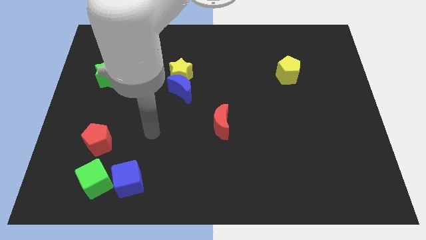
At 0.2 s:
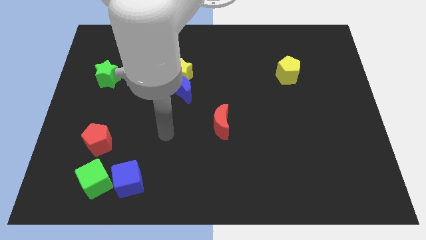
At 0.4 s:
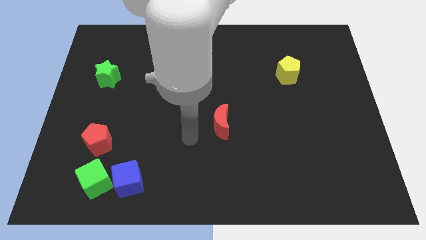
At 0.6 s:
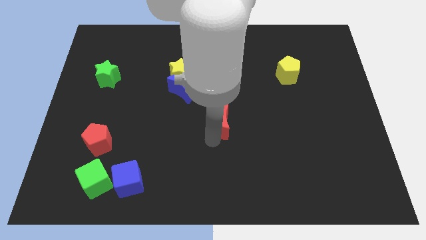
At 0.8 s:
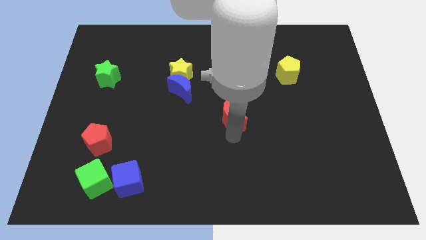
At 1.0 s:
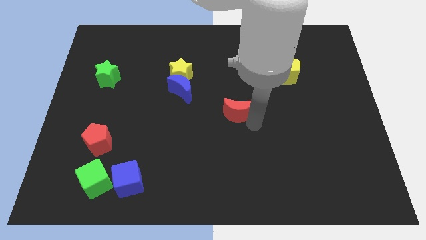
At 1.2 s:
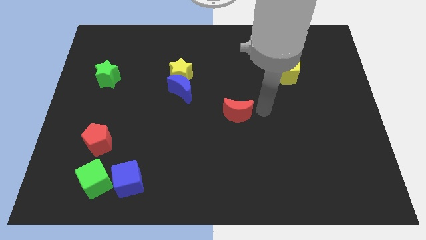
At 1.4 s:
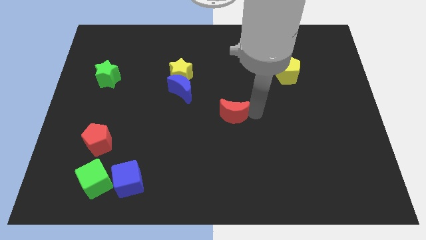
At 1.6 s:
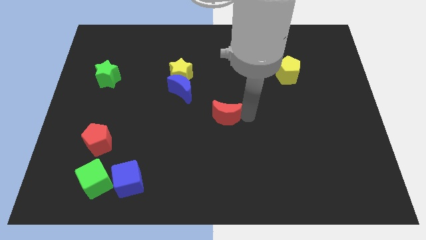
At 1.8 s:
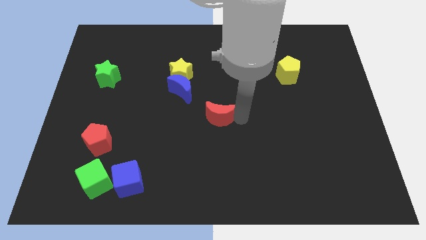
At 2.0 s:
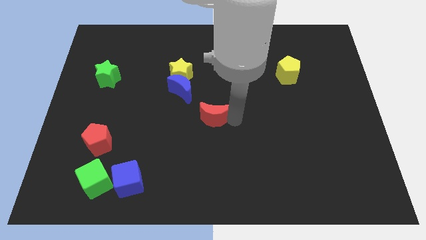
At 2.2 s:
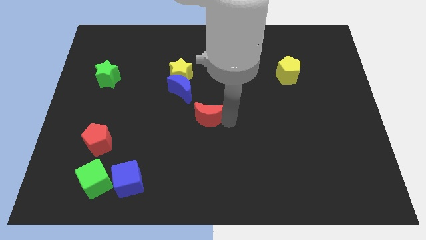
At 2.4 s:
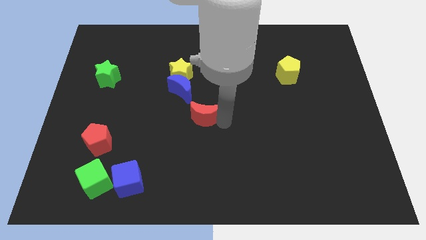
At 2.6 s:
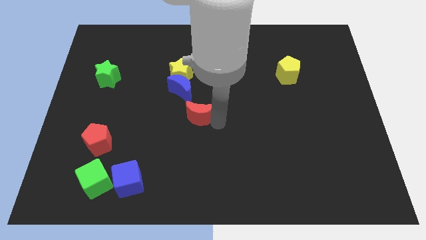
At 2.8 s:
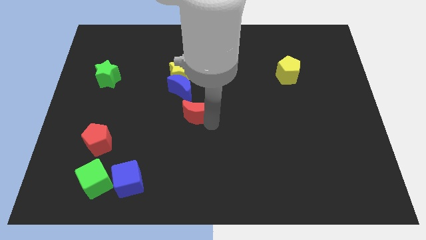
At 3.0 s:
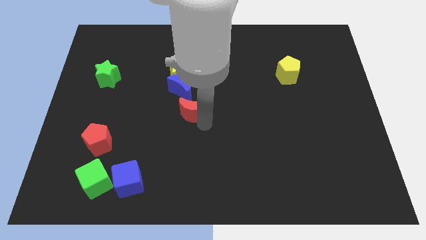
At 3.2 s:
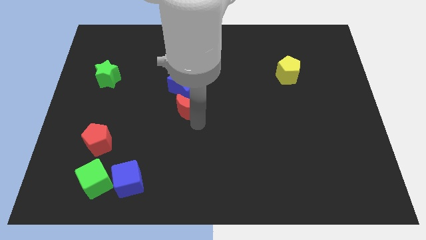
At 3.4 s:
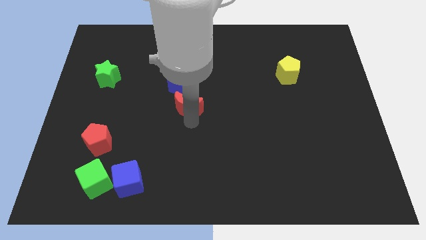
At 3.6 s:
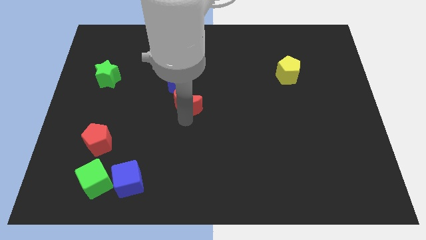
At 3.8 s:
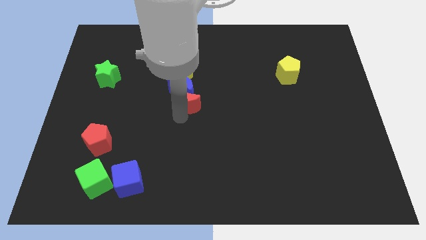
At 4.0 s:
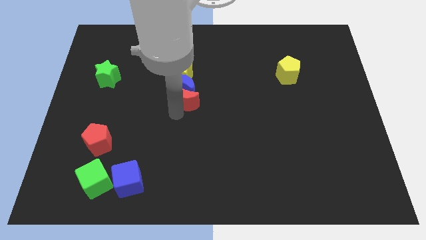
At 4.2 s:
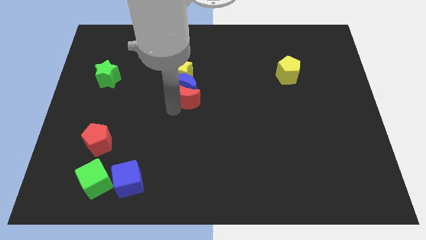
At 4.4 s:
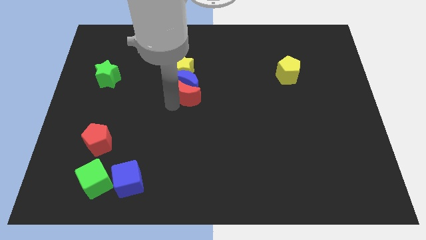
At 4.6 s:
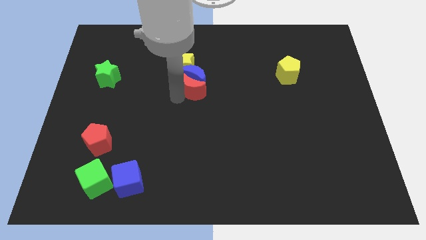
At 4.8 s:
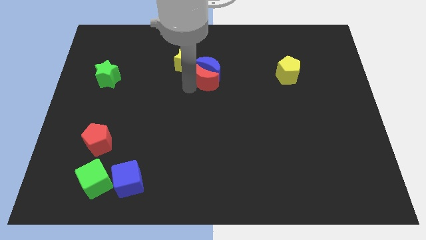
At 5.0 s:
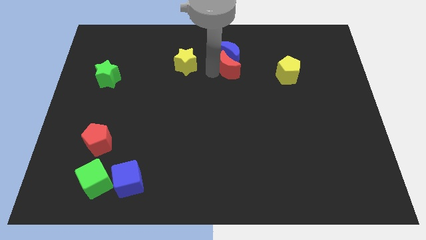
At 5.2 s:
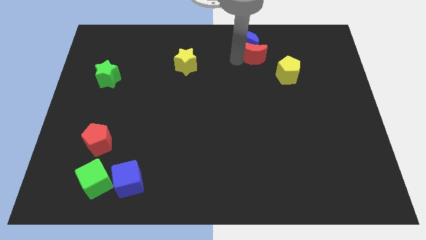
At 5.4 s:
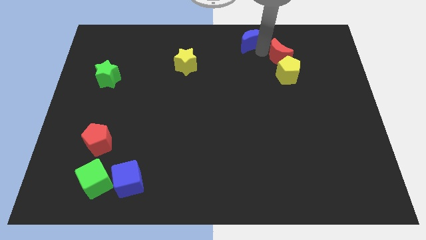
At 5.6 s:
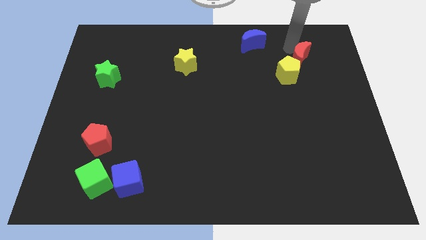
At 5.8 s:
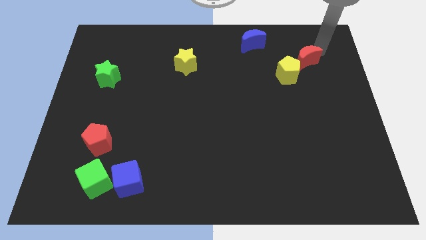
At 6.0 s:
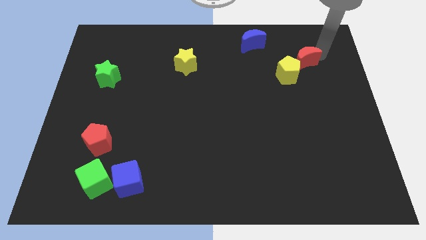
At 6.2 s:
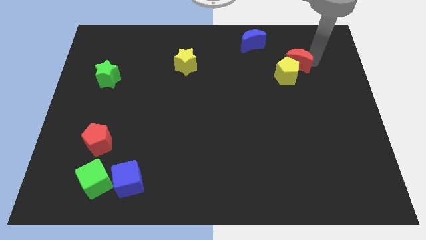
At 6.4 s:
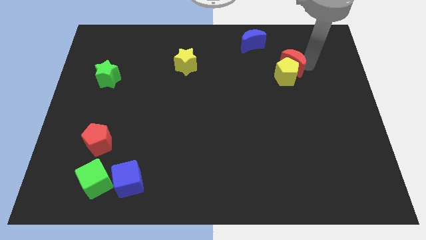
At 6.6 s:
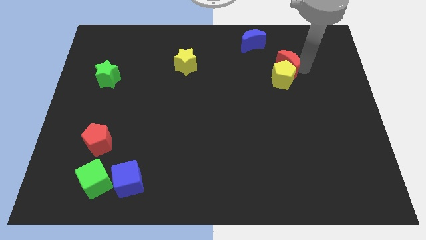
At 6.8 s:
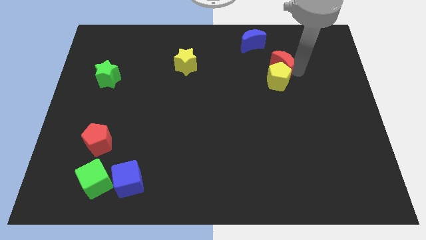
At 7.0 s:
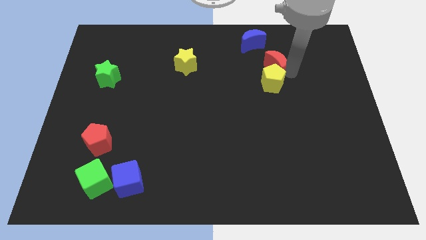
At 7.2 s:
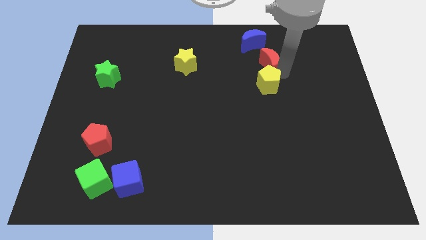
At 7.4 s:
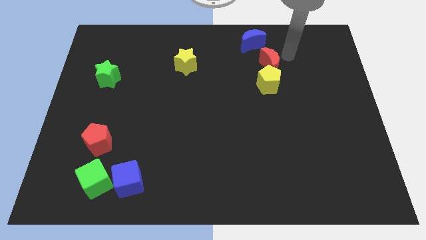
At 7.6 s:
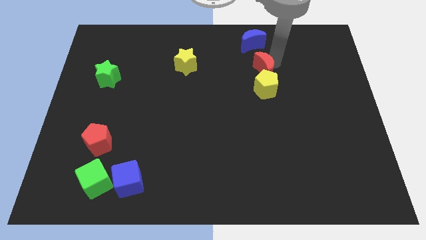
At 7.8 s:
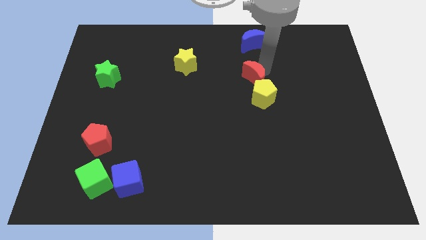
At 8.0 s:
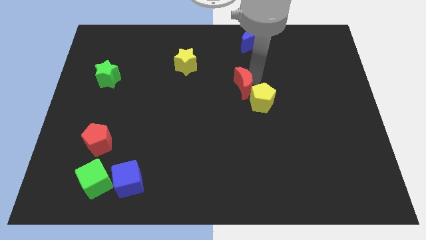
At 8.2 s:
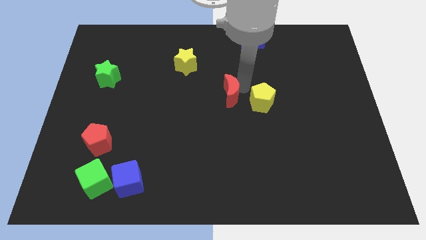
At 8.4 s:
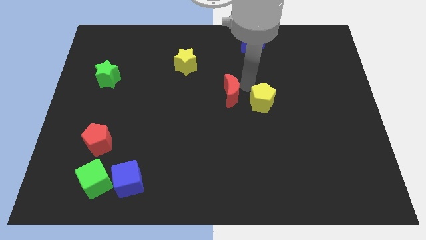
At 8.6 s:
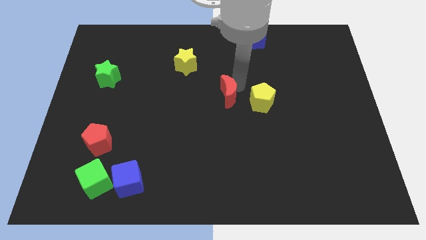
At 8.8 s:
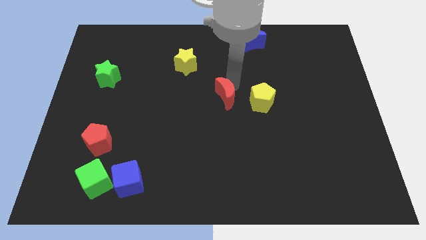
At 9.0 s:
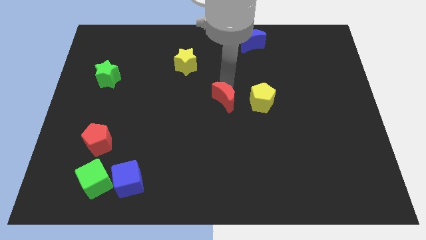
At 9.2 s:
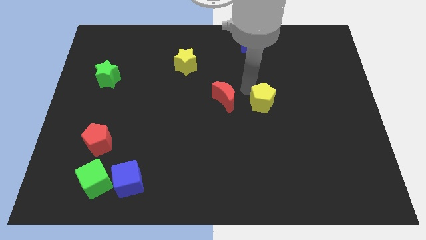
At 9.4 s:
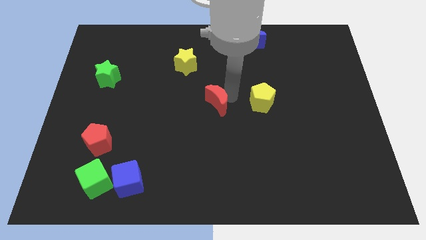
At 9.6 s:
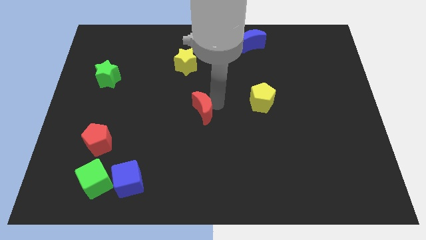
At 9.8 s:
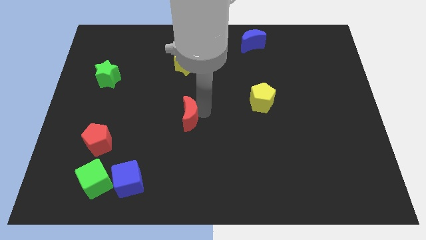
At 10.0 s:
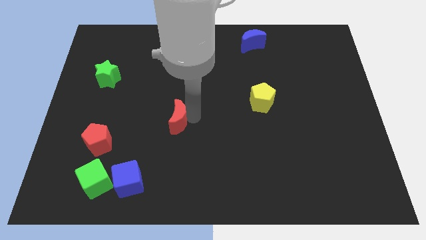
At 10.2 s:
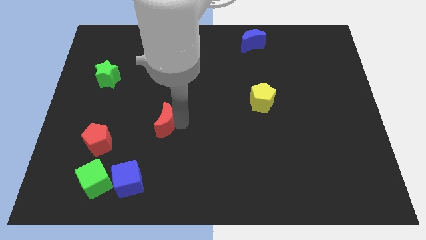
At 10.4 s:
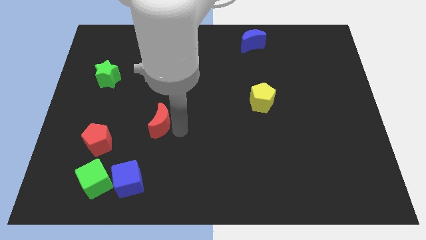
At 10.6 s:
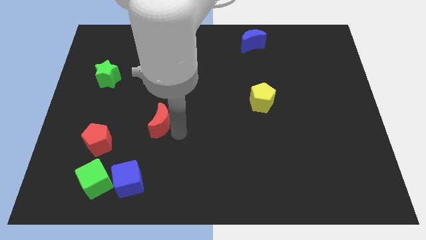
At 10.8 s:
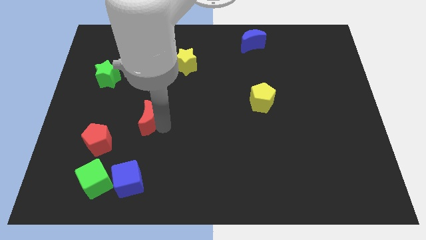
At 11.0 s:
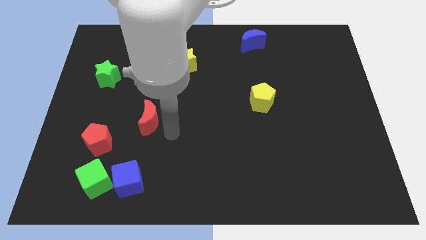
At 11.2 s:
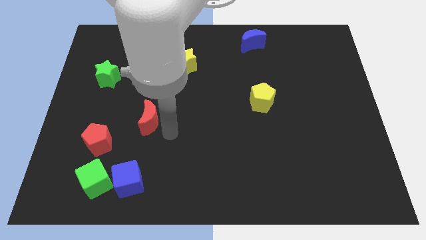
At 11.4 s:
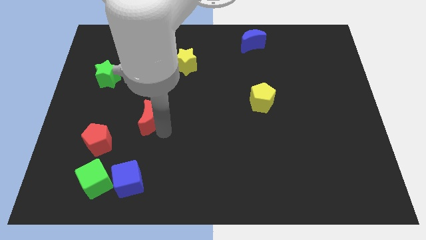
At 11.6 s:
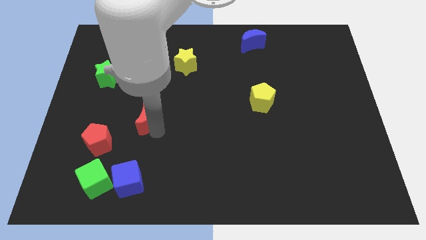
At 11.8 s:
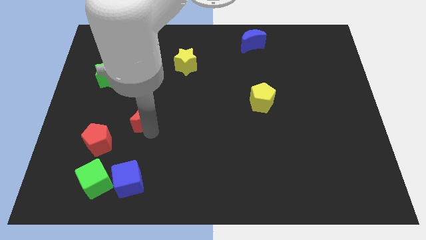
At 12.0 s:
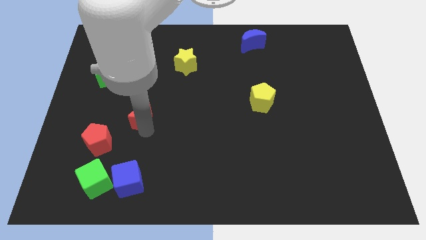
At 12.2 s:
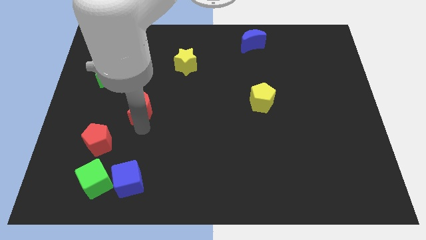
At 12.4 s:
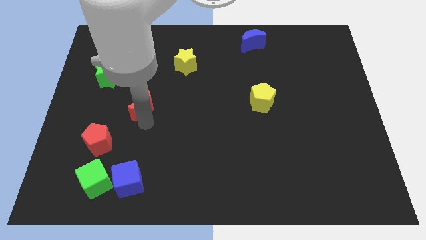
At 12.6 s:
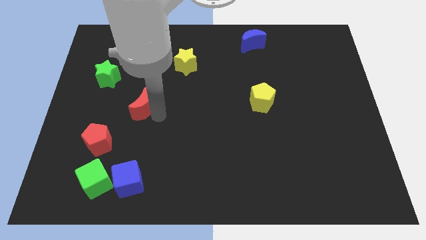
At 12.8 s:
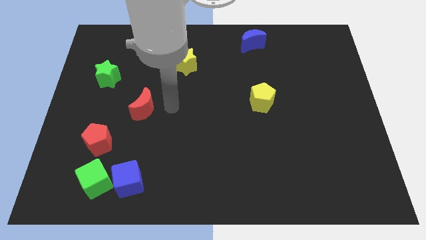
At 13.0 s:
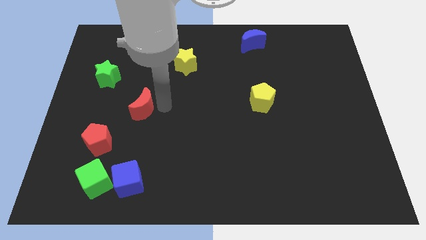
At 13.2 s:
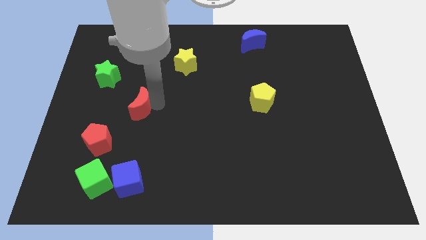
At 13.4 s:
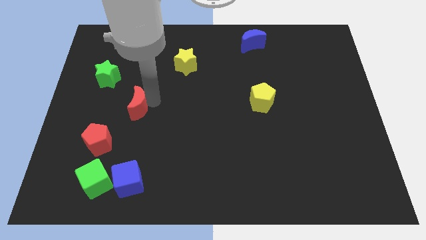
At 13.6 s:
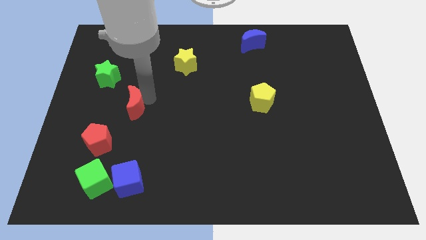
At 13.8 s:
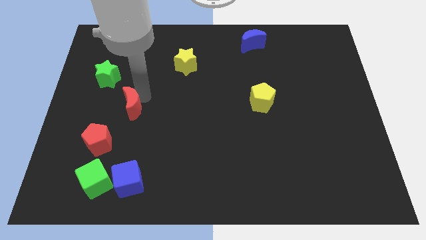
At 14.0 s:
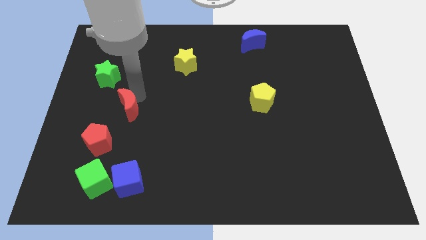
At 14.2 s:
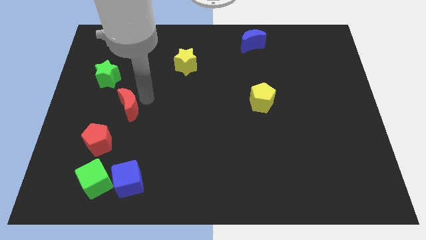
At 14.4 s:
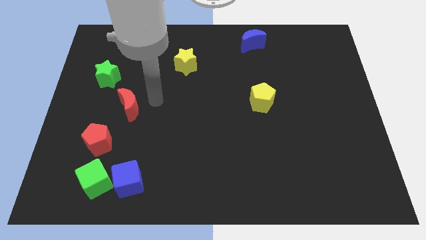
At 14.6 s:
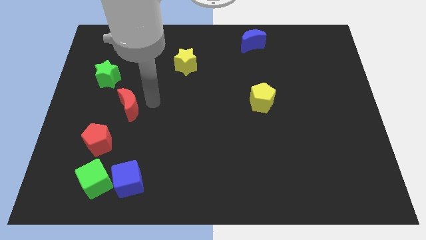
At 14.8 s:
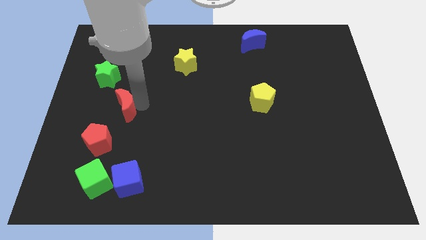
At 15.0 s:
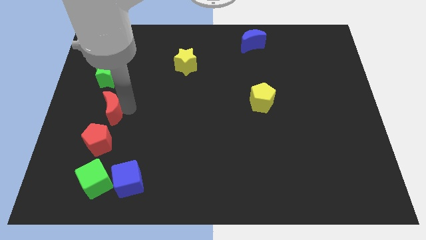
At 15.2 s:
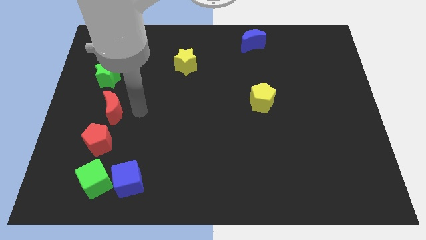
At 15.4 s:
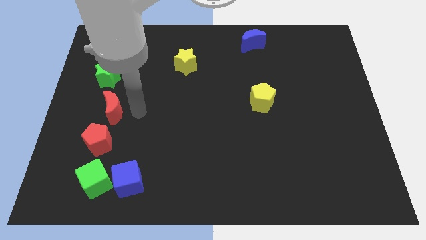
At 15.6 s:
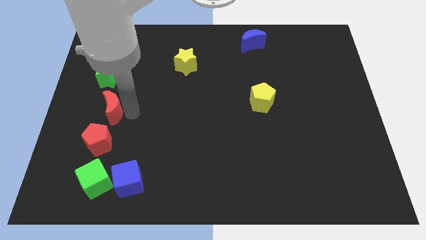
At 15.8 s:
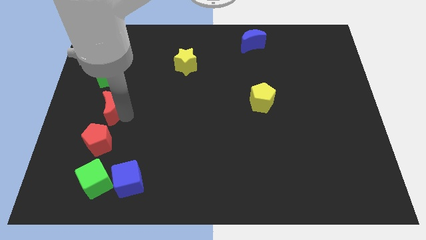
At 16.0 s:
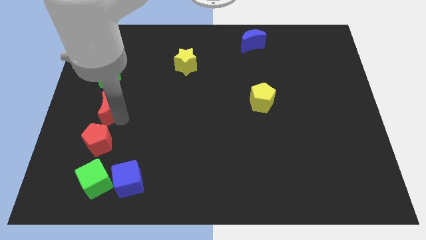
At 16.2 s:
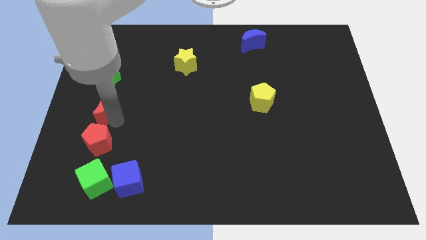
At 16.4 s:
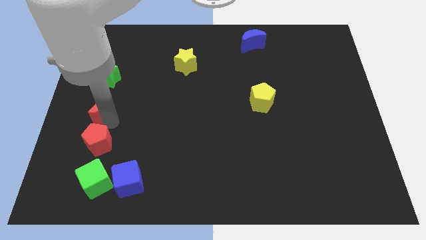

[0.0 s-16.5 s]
push the red moon to the left side of the board
